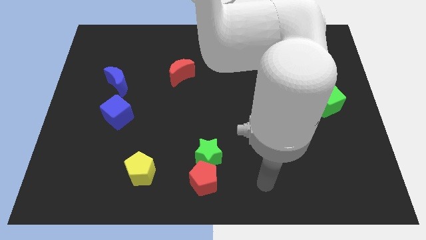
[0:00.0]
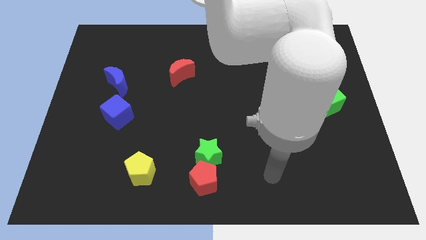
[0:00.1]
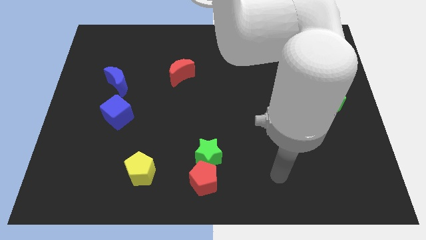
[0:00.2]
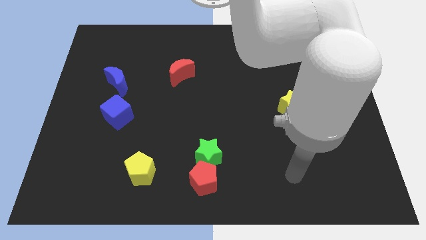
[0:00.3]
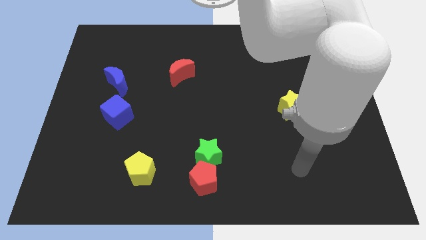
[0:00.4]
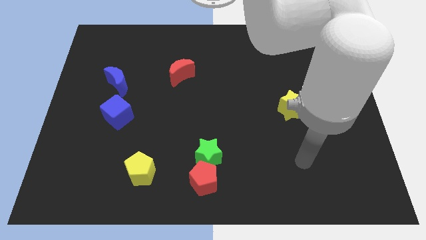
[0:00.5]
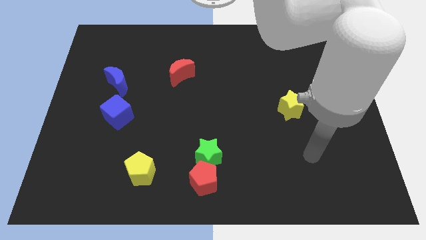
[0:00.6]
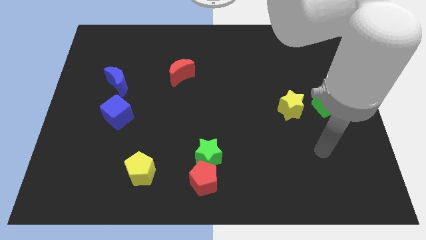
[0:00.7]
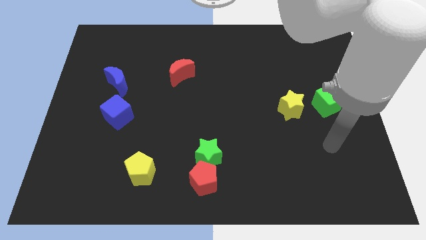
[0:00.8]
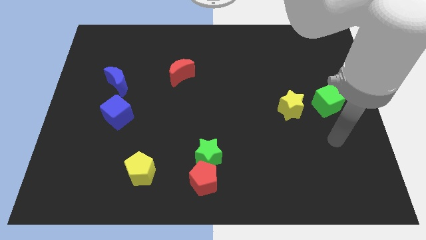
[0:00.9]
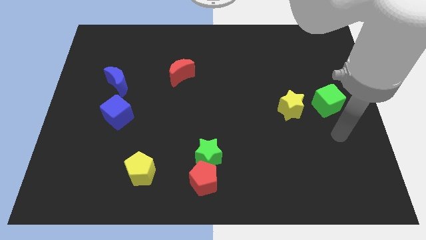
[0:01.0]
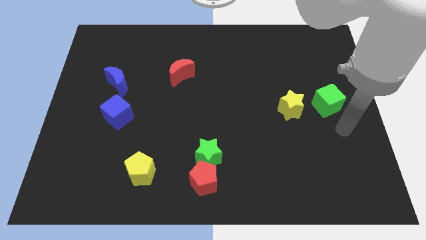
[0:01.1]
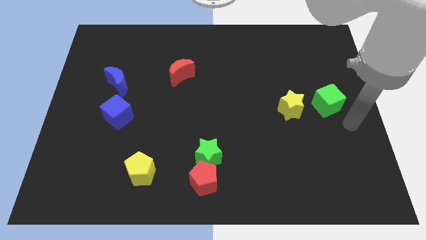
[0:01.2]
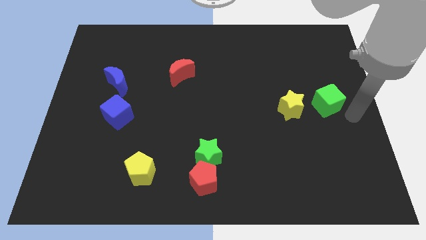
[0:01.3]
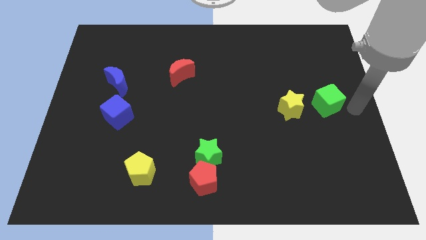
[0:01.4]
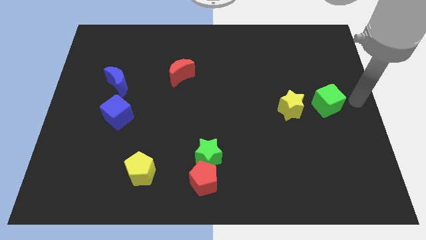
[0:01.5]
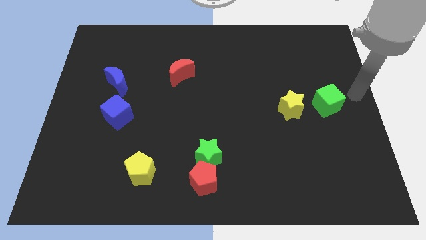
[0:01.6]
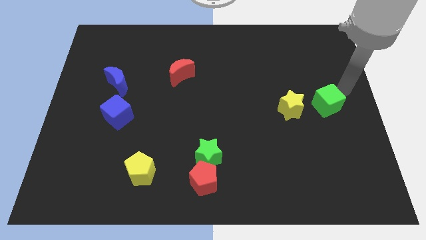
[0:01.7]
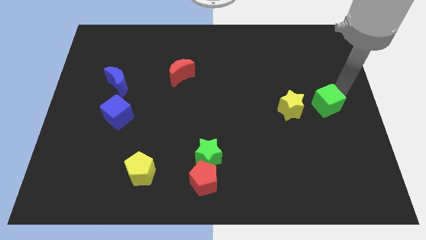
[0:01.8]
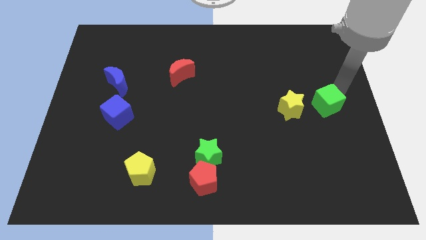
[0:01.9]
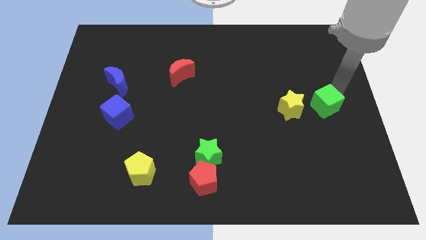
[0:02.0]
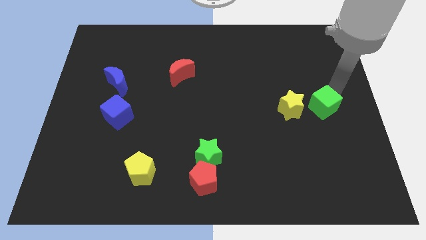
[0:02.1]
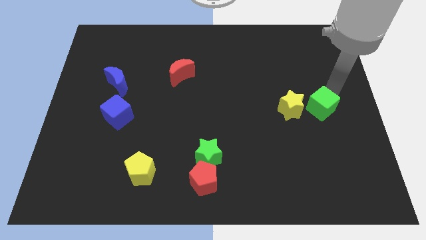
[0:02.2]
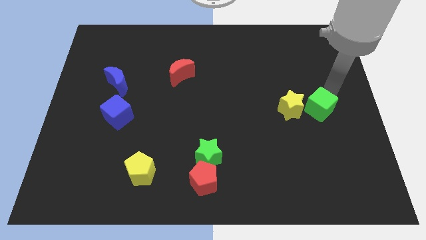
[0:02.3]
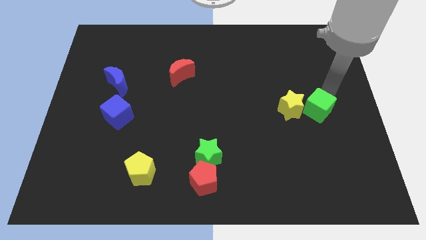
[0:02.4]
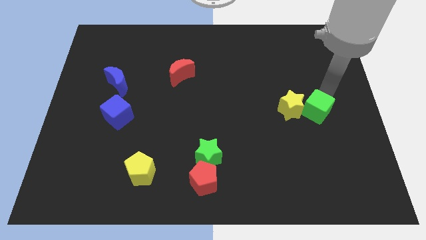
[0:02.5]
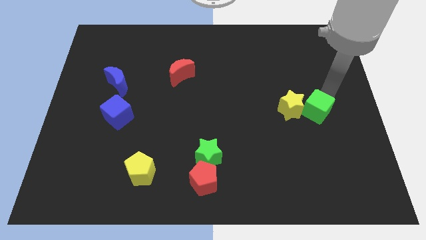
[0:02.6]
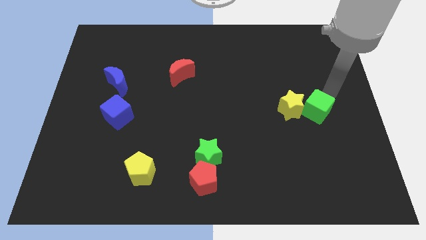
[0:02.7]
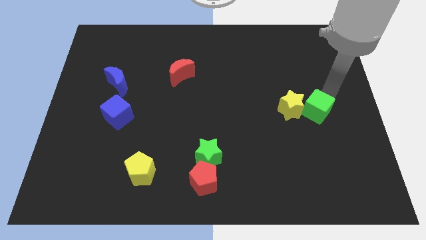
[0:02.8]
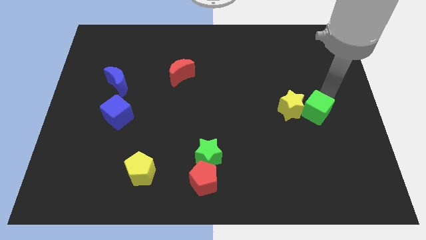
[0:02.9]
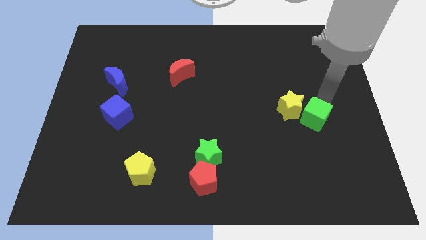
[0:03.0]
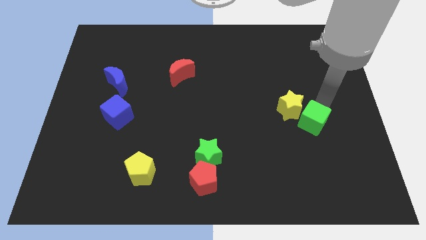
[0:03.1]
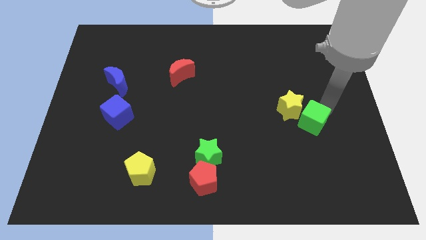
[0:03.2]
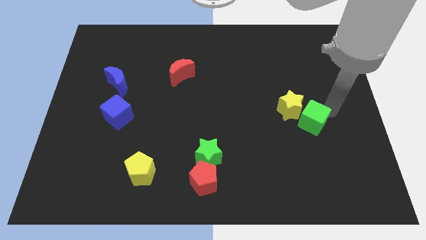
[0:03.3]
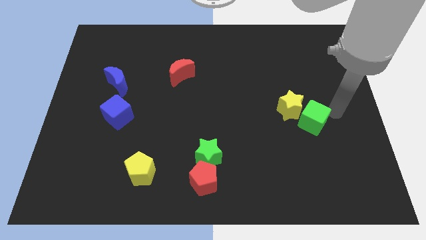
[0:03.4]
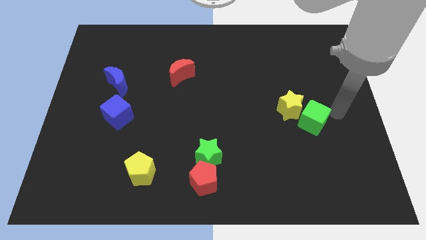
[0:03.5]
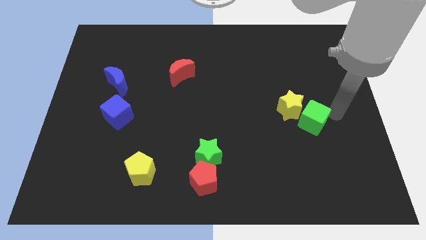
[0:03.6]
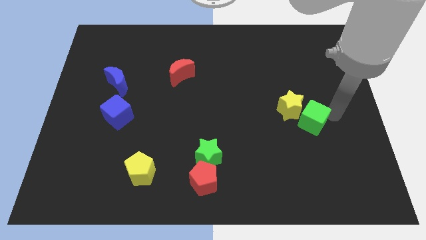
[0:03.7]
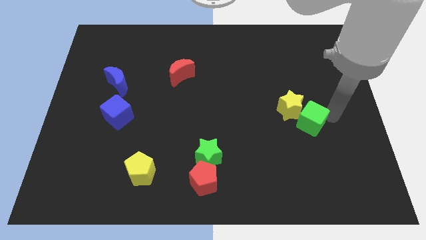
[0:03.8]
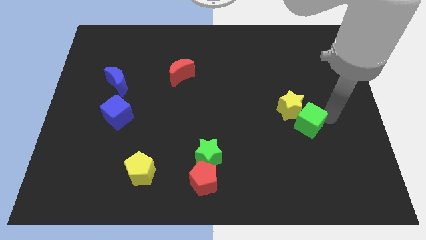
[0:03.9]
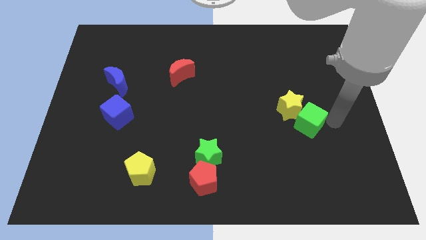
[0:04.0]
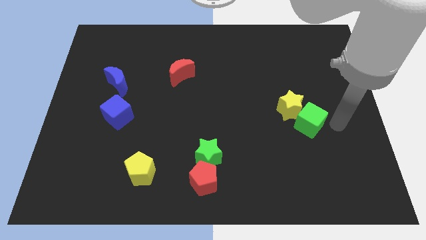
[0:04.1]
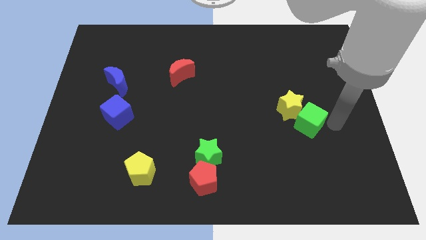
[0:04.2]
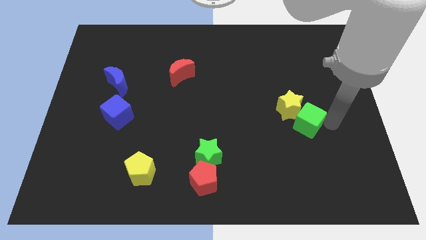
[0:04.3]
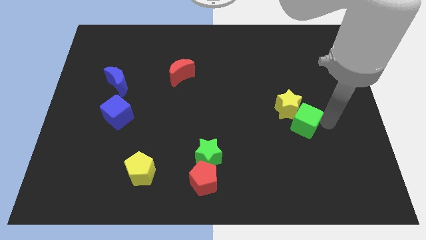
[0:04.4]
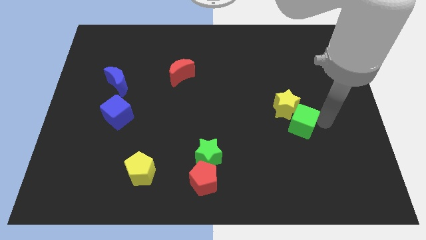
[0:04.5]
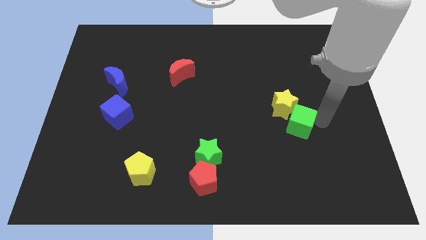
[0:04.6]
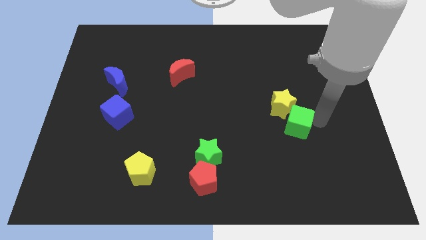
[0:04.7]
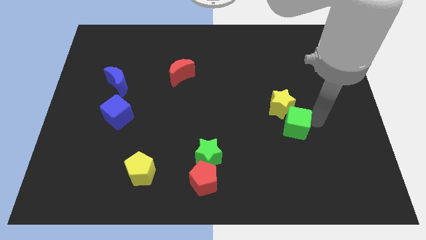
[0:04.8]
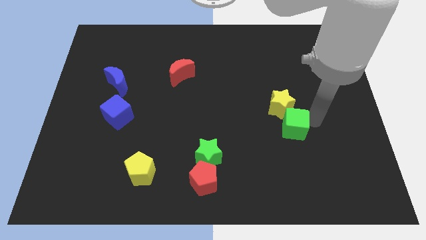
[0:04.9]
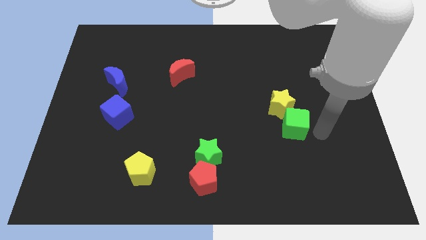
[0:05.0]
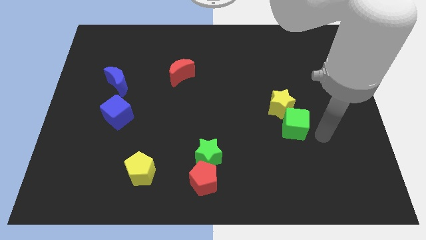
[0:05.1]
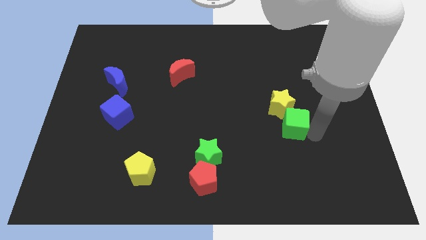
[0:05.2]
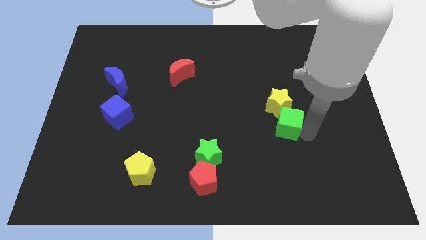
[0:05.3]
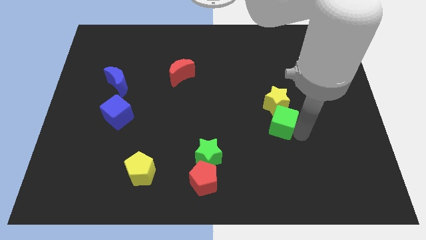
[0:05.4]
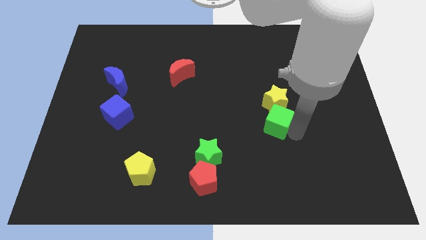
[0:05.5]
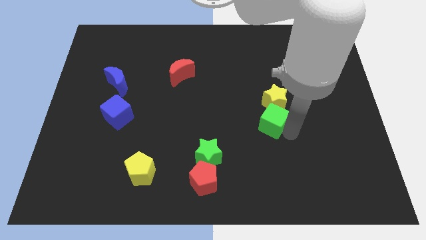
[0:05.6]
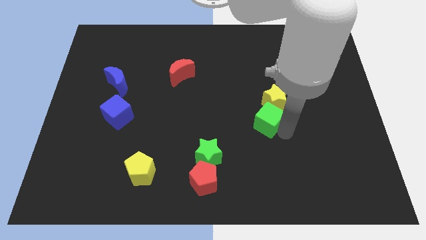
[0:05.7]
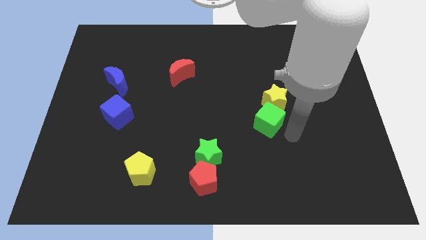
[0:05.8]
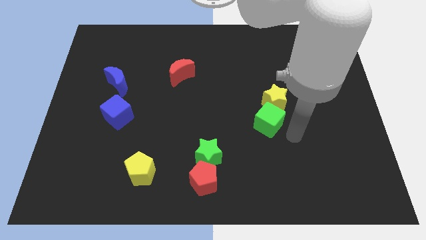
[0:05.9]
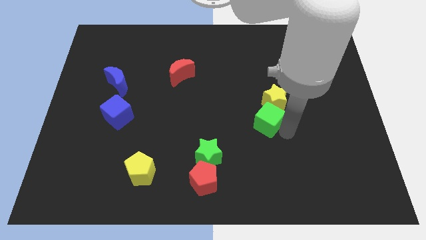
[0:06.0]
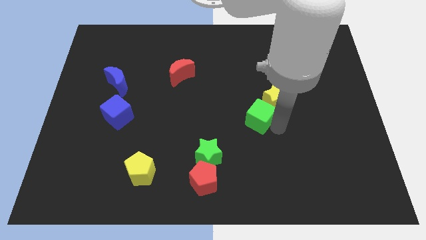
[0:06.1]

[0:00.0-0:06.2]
put the green cube to the left of the yellow star

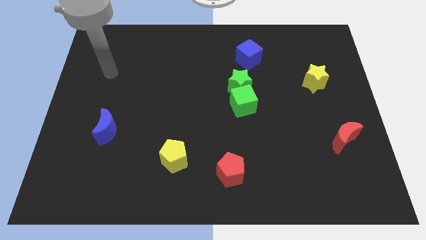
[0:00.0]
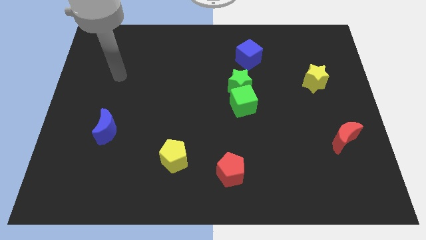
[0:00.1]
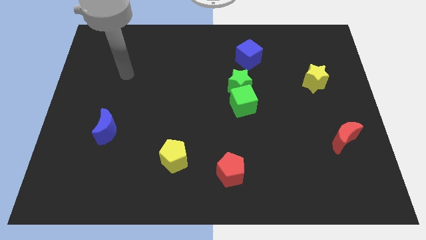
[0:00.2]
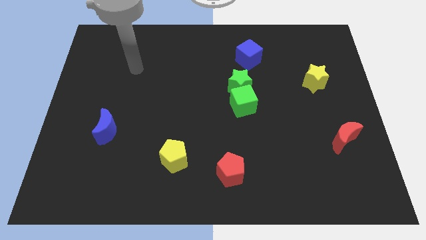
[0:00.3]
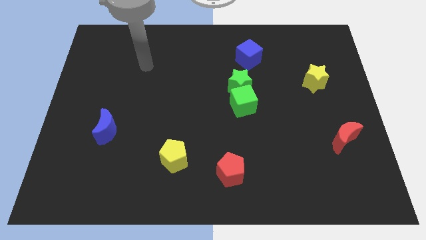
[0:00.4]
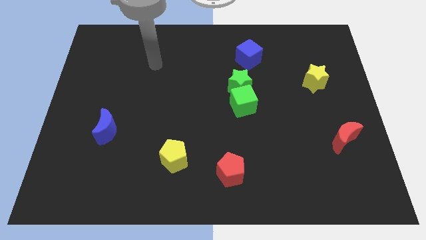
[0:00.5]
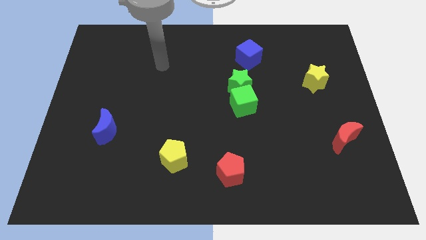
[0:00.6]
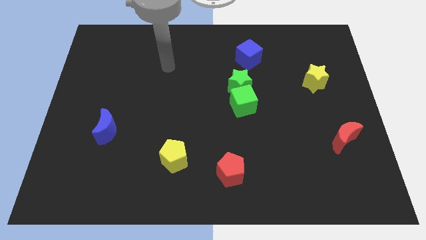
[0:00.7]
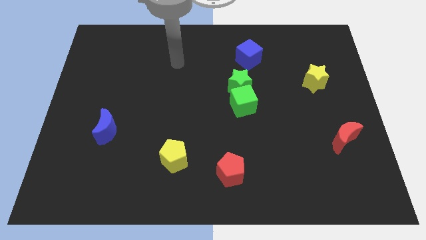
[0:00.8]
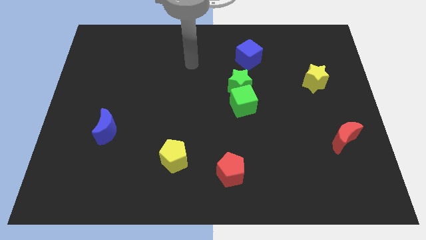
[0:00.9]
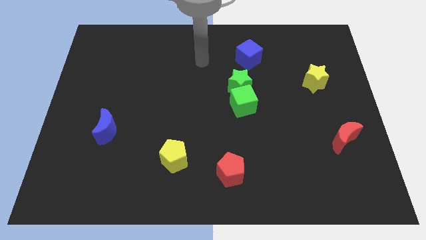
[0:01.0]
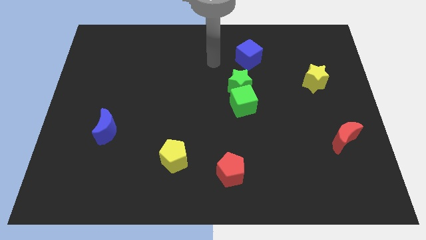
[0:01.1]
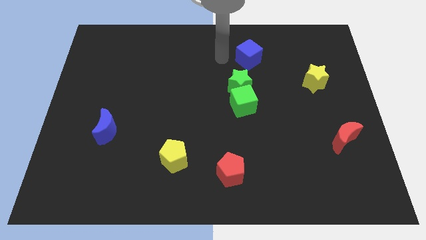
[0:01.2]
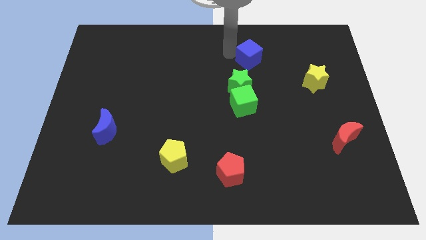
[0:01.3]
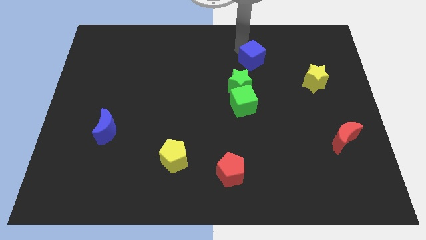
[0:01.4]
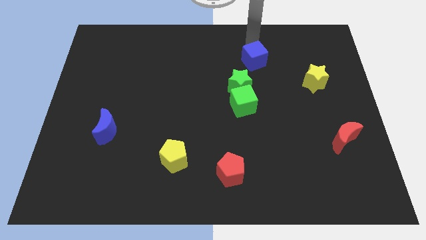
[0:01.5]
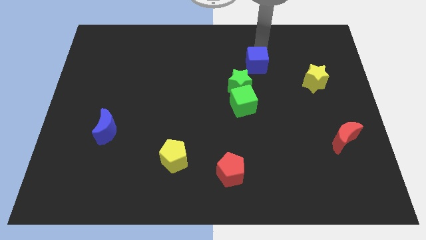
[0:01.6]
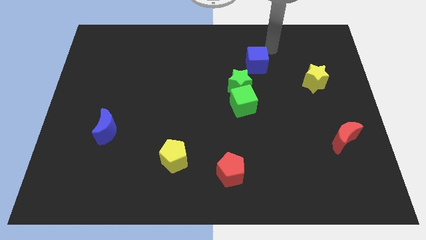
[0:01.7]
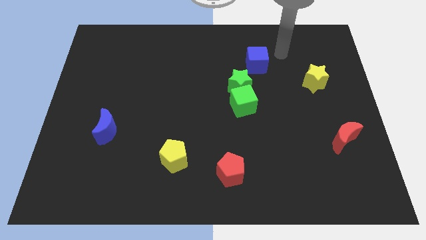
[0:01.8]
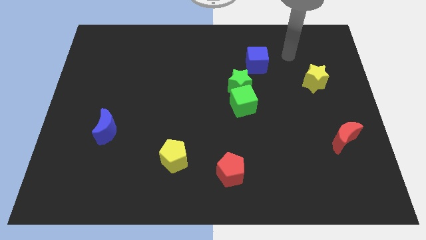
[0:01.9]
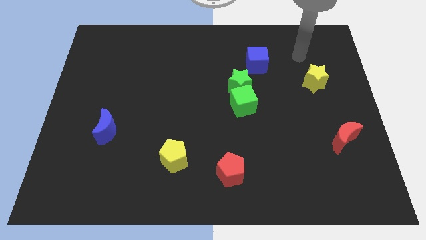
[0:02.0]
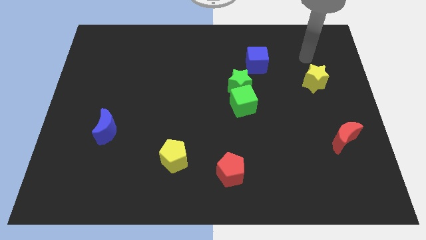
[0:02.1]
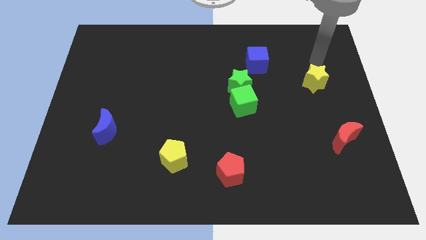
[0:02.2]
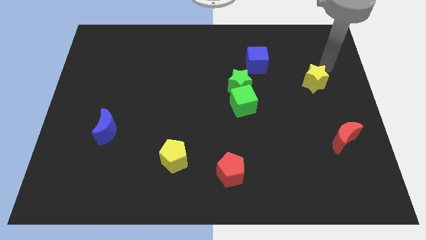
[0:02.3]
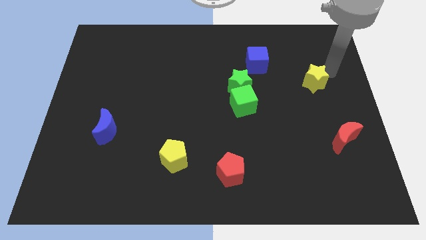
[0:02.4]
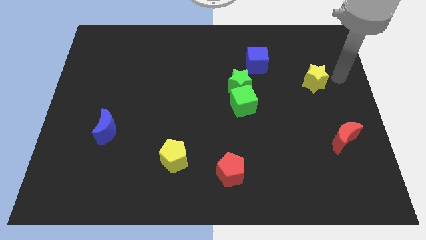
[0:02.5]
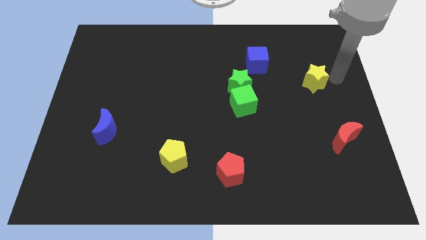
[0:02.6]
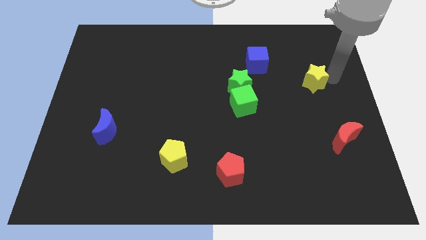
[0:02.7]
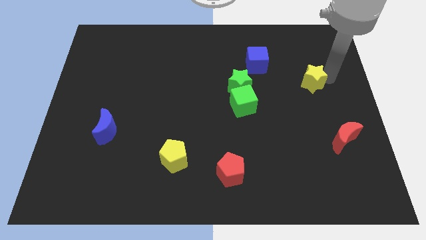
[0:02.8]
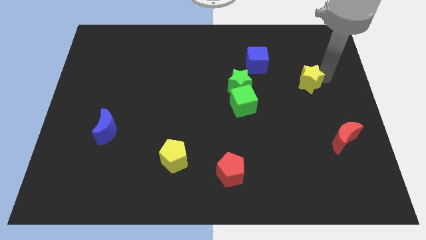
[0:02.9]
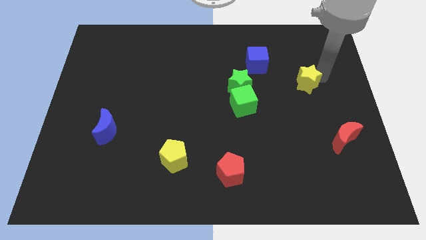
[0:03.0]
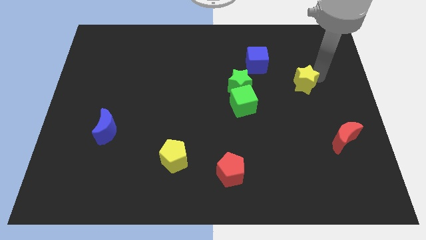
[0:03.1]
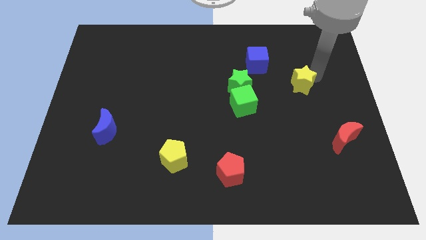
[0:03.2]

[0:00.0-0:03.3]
slide the yellow star to the right of the green star
